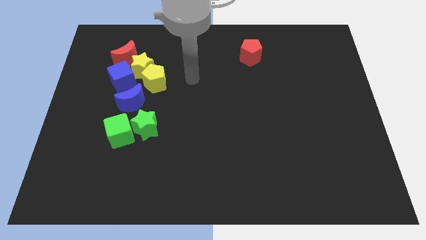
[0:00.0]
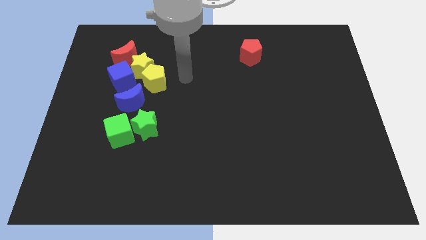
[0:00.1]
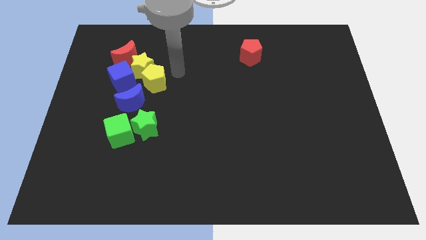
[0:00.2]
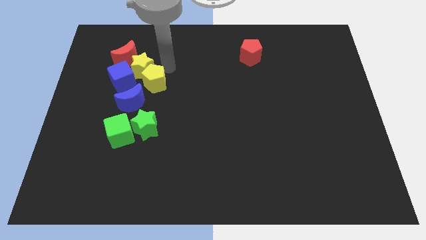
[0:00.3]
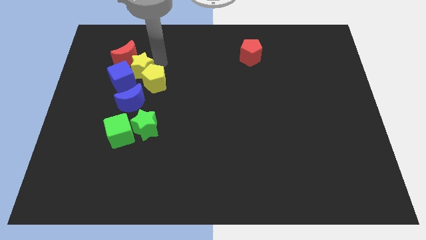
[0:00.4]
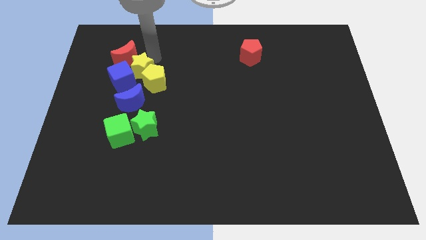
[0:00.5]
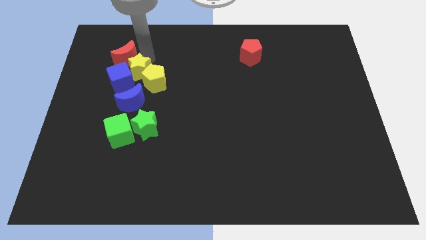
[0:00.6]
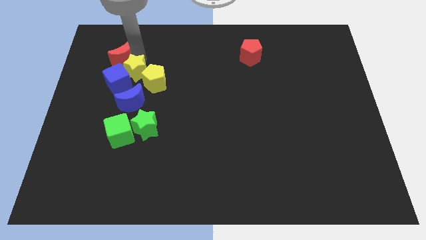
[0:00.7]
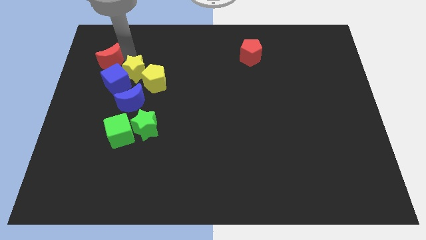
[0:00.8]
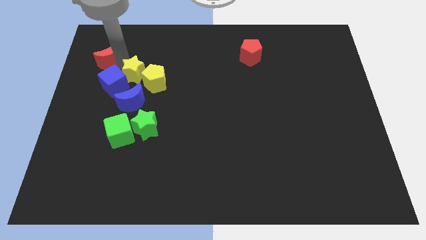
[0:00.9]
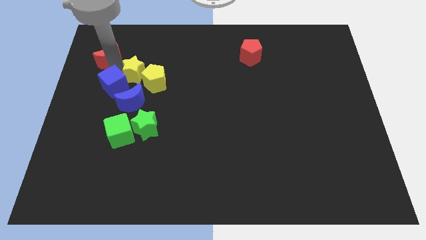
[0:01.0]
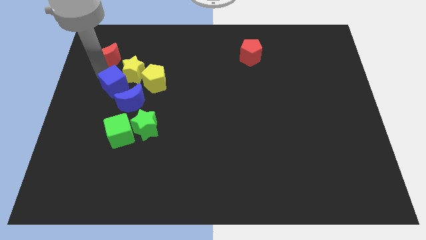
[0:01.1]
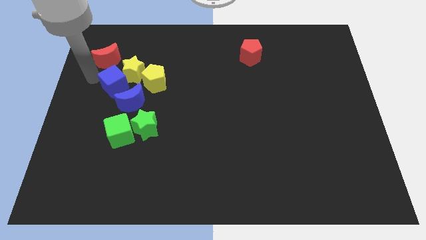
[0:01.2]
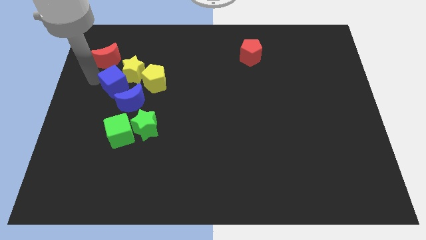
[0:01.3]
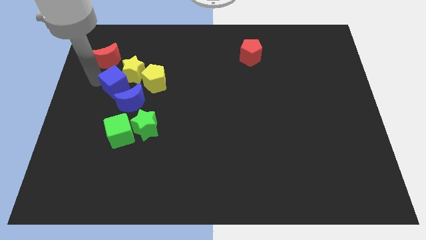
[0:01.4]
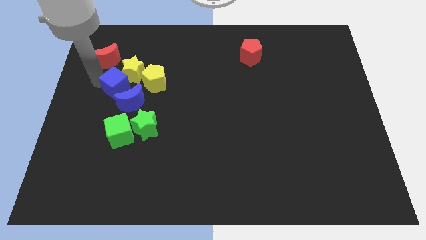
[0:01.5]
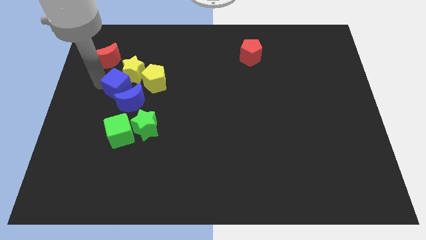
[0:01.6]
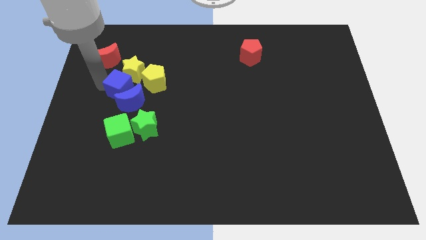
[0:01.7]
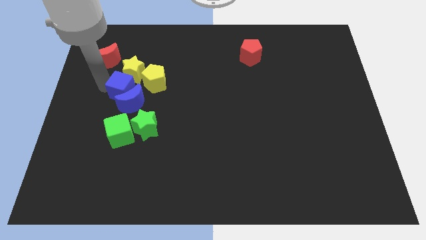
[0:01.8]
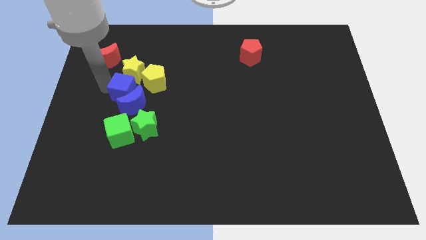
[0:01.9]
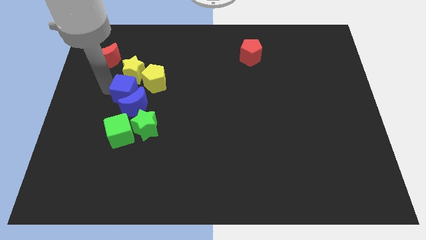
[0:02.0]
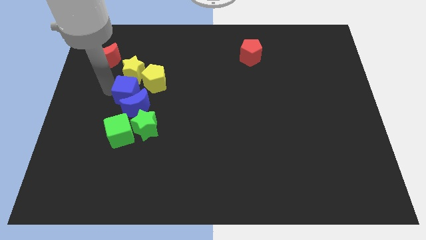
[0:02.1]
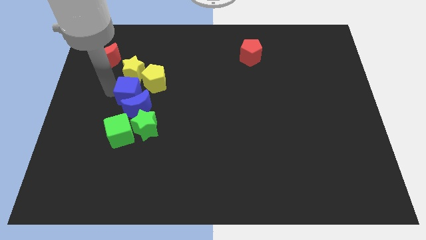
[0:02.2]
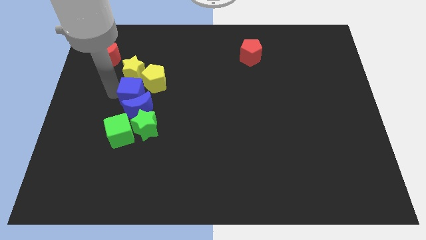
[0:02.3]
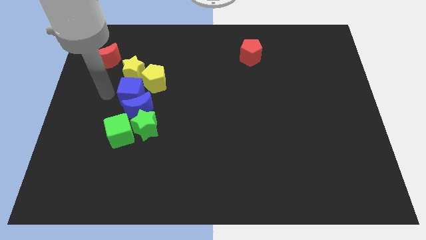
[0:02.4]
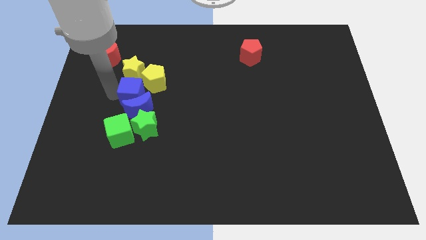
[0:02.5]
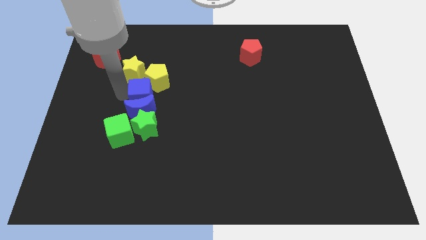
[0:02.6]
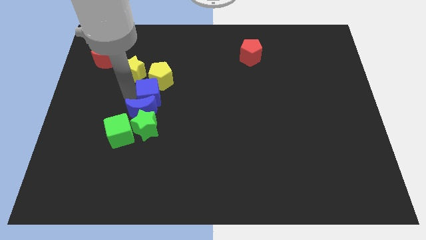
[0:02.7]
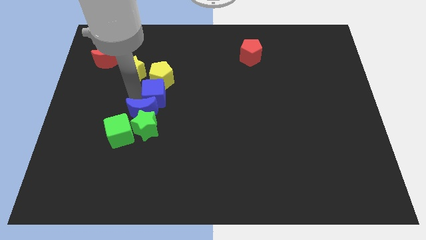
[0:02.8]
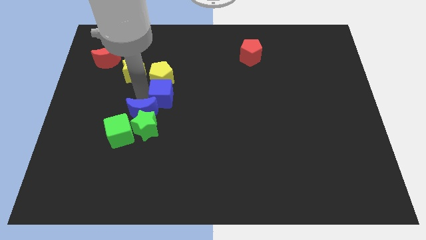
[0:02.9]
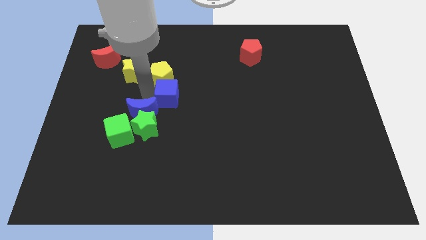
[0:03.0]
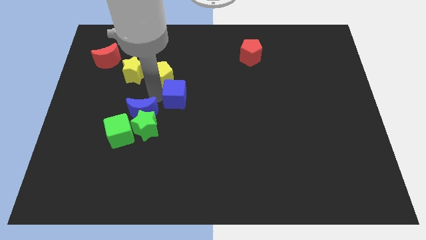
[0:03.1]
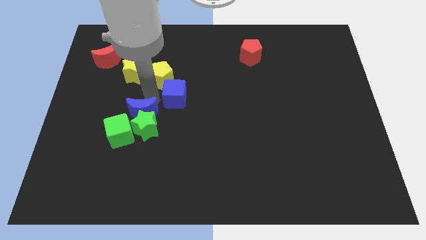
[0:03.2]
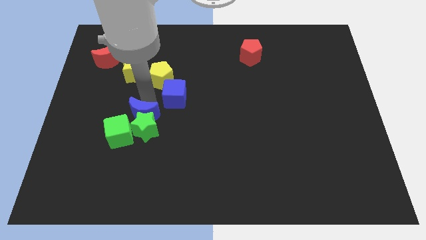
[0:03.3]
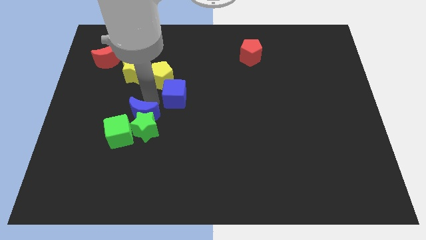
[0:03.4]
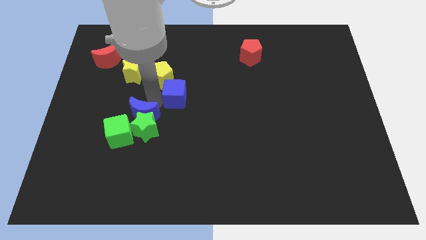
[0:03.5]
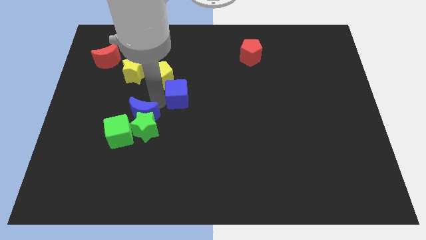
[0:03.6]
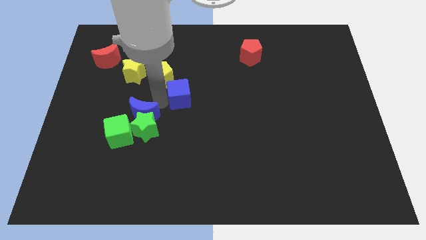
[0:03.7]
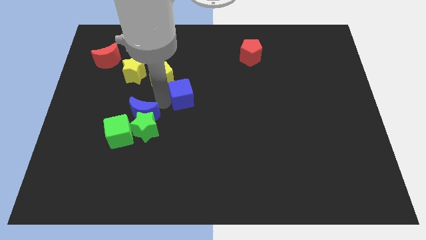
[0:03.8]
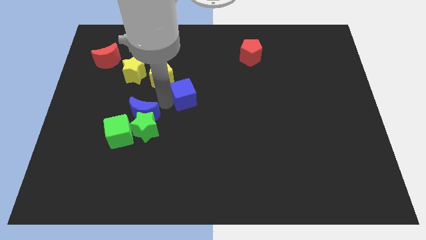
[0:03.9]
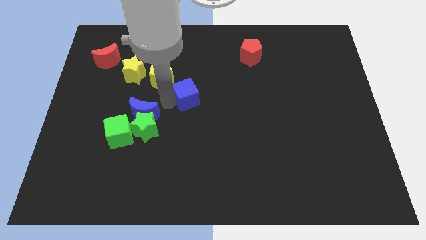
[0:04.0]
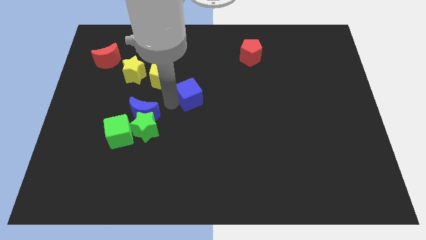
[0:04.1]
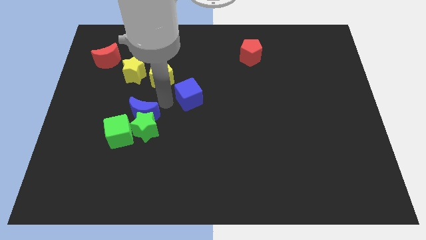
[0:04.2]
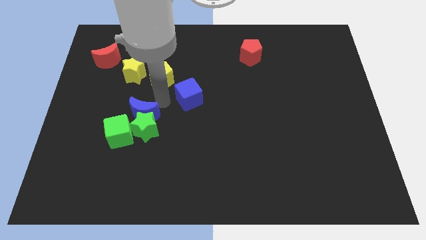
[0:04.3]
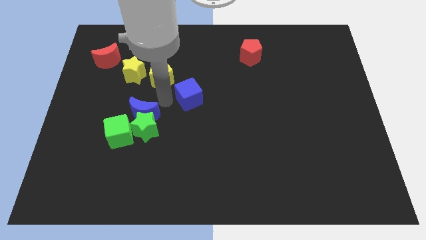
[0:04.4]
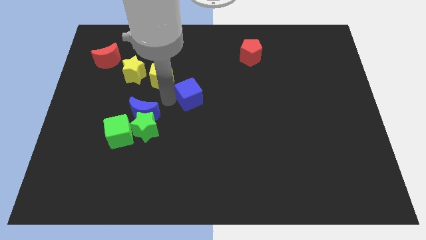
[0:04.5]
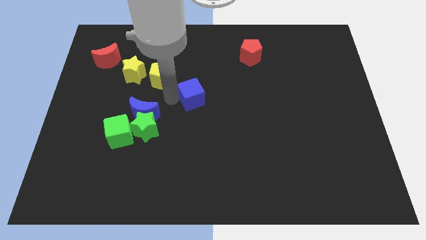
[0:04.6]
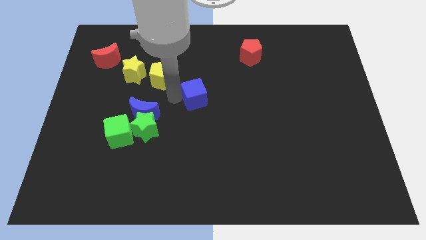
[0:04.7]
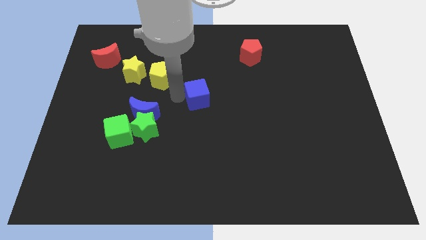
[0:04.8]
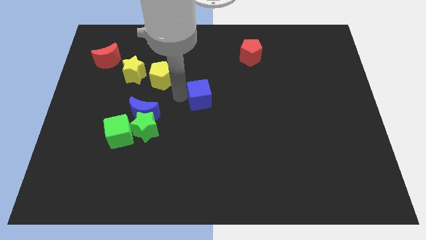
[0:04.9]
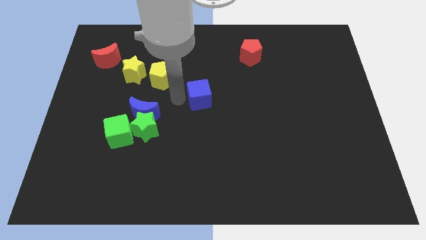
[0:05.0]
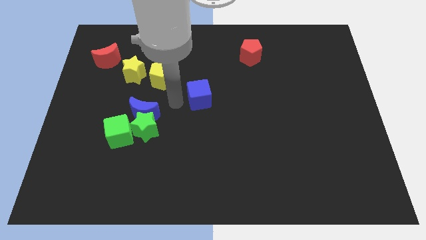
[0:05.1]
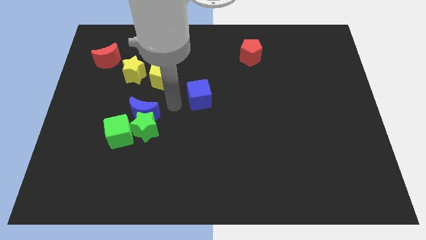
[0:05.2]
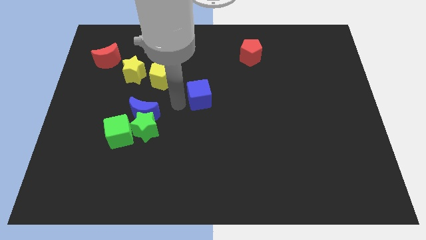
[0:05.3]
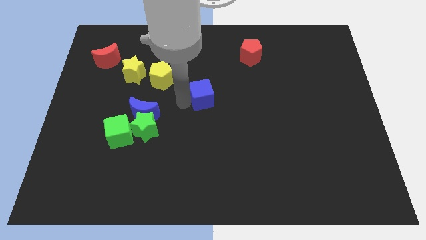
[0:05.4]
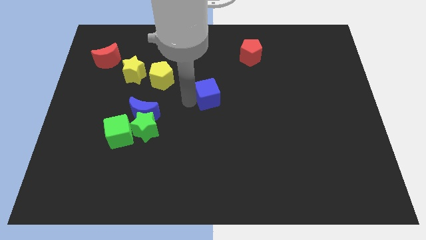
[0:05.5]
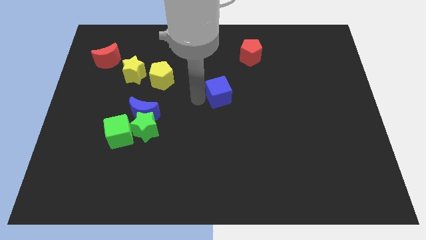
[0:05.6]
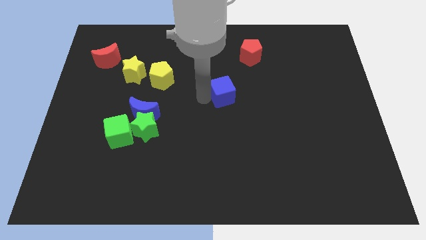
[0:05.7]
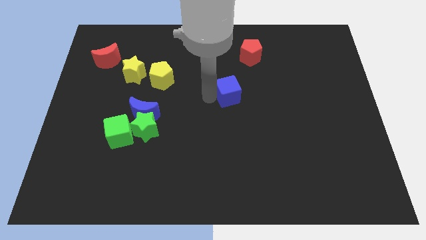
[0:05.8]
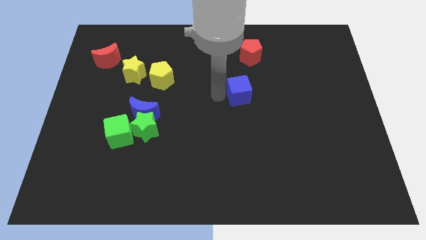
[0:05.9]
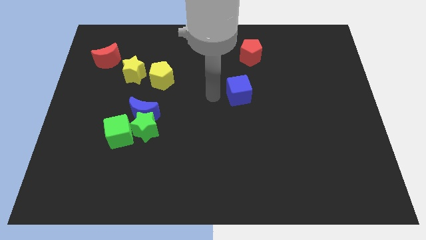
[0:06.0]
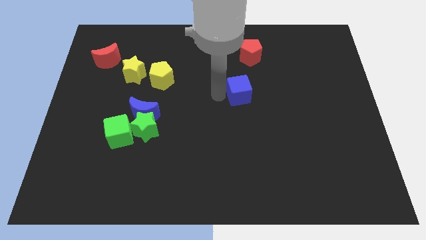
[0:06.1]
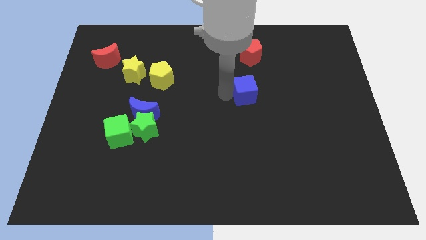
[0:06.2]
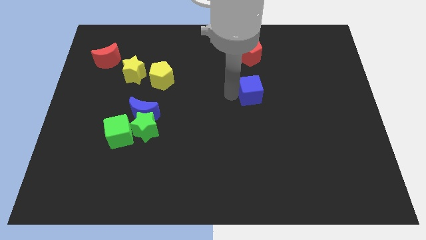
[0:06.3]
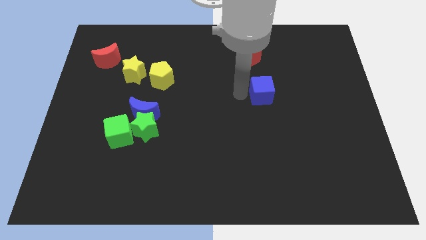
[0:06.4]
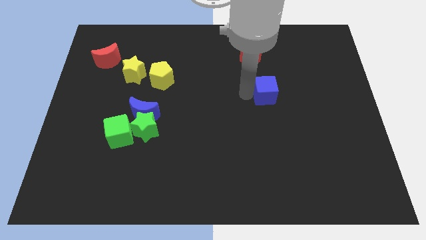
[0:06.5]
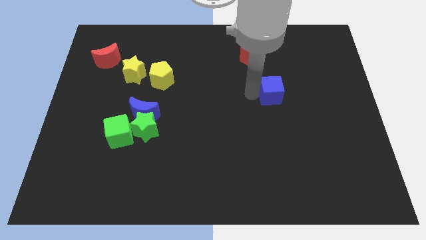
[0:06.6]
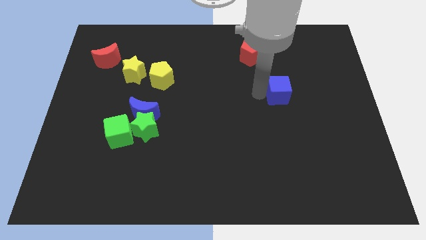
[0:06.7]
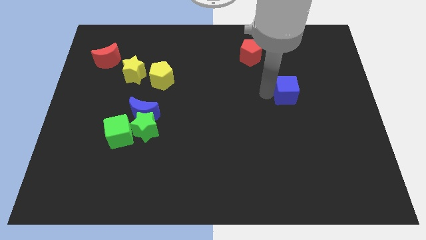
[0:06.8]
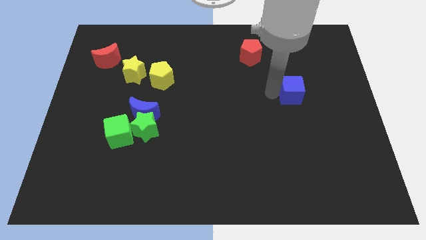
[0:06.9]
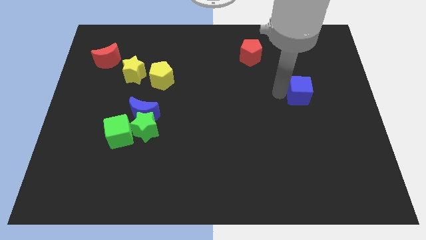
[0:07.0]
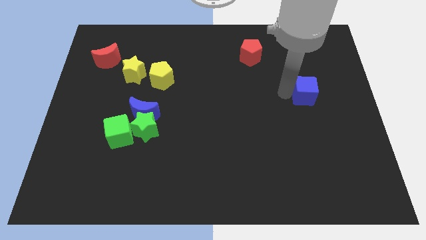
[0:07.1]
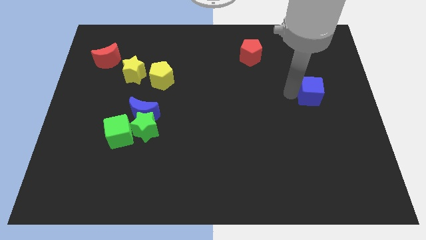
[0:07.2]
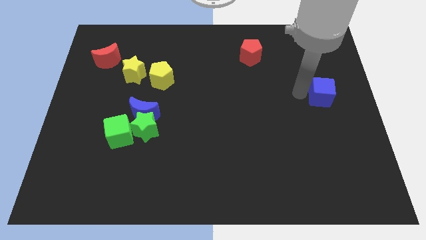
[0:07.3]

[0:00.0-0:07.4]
slide the blue cube to the right side
